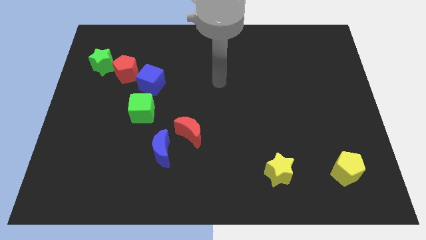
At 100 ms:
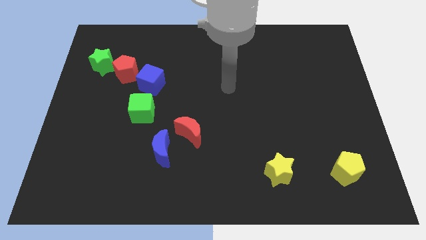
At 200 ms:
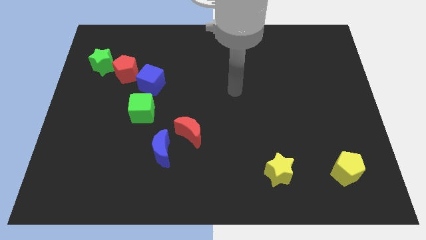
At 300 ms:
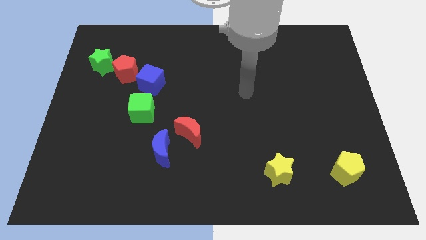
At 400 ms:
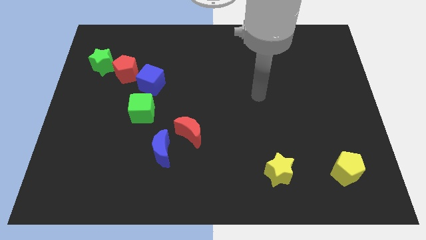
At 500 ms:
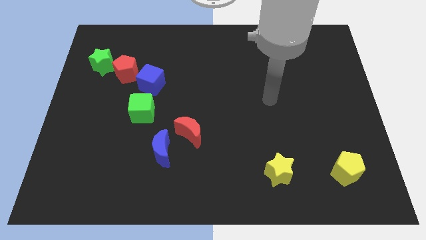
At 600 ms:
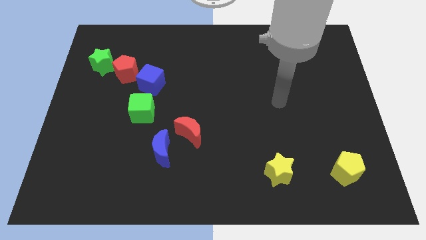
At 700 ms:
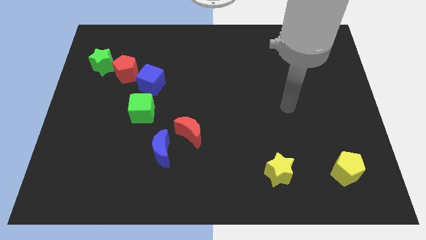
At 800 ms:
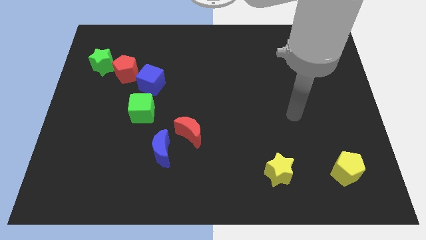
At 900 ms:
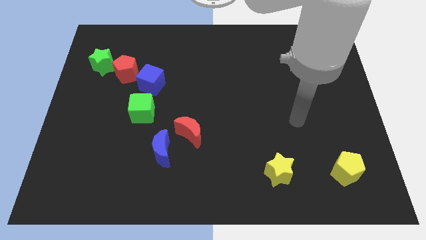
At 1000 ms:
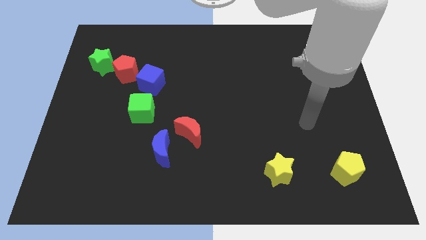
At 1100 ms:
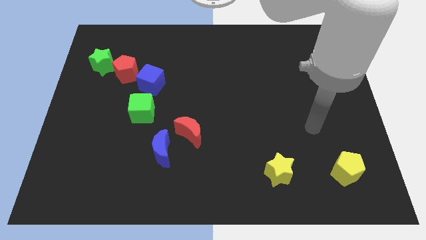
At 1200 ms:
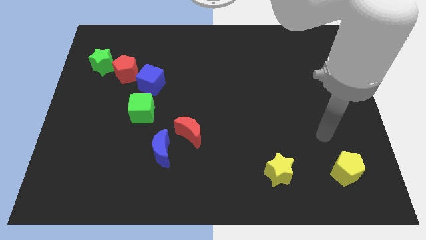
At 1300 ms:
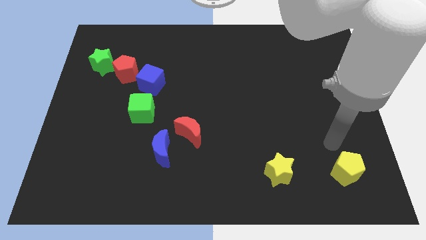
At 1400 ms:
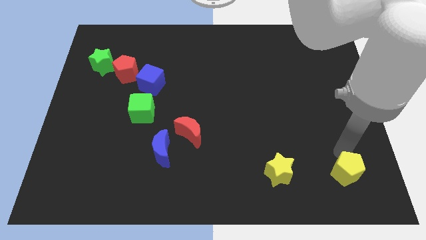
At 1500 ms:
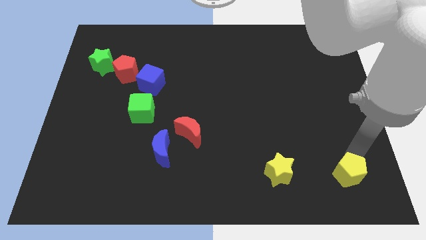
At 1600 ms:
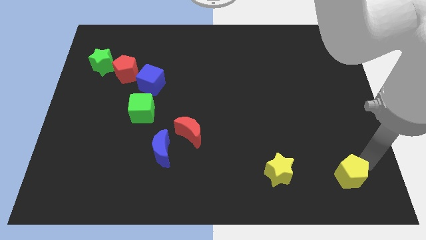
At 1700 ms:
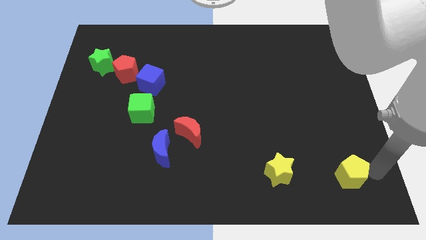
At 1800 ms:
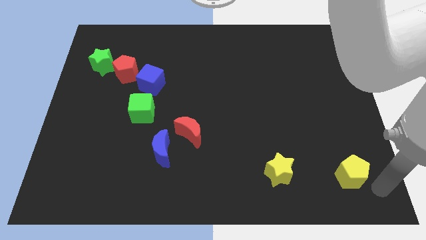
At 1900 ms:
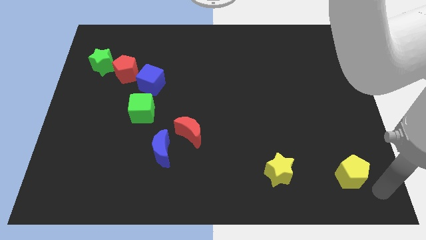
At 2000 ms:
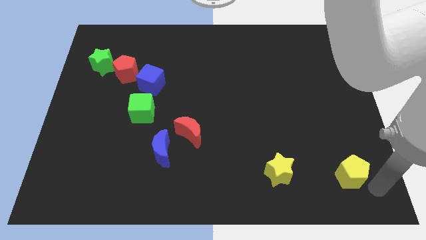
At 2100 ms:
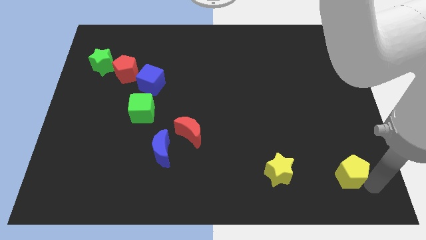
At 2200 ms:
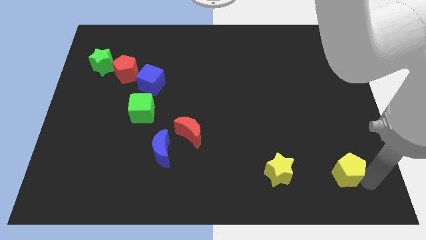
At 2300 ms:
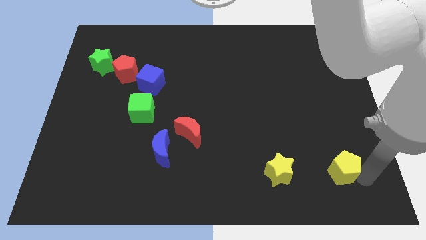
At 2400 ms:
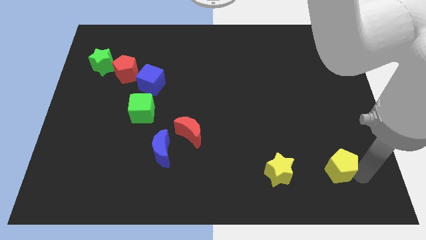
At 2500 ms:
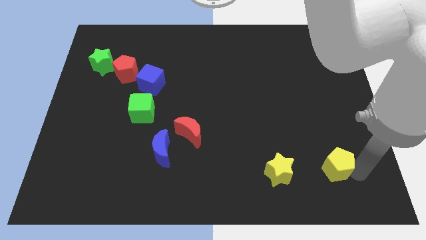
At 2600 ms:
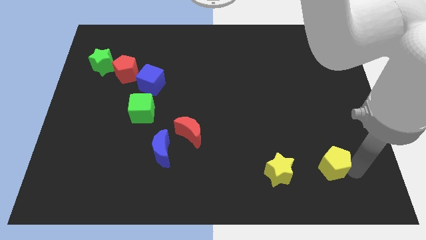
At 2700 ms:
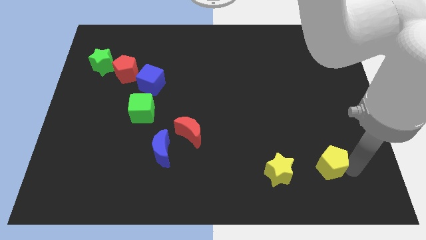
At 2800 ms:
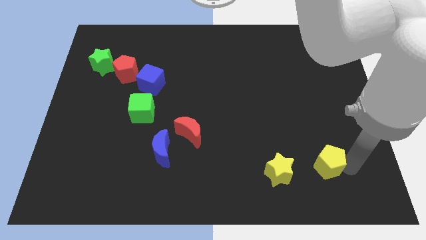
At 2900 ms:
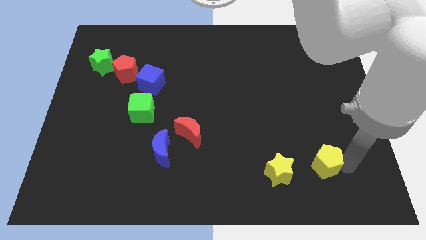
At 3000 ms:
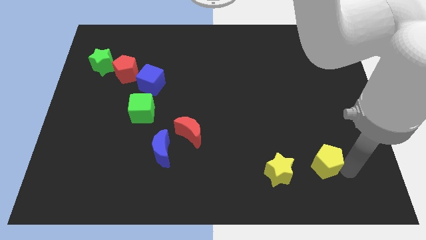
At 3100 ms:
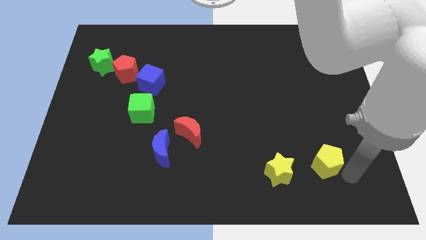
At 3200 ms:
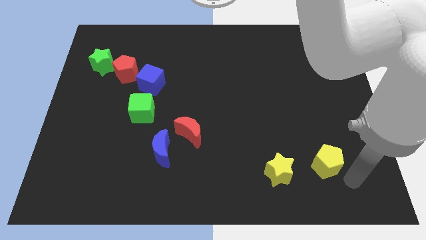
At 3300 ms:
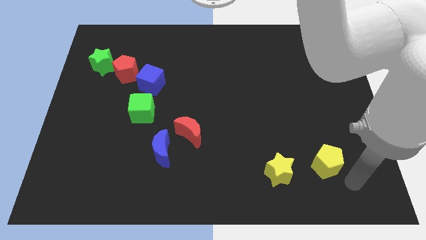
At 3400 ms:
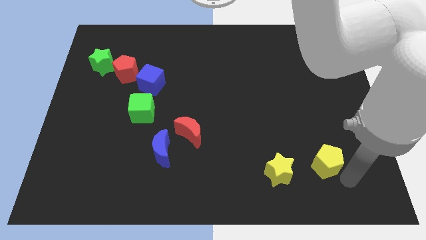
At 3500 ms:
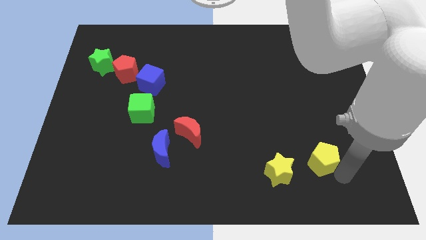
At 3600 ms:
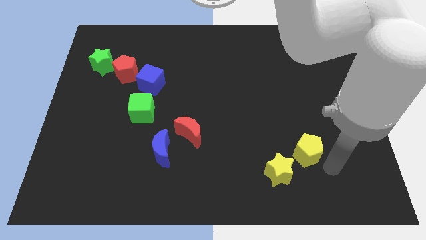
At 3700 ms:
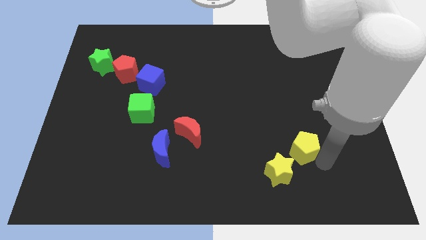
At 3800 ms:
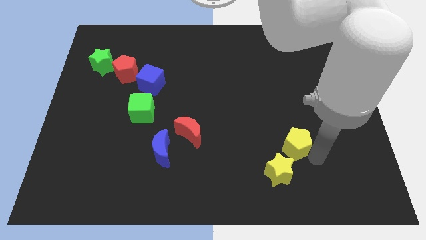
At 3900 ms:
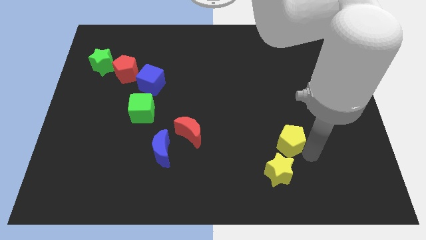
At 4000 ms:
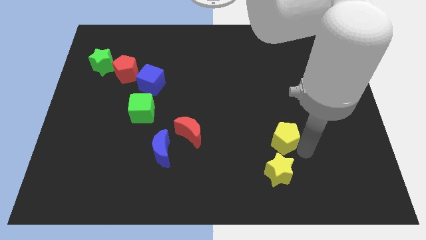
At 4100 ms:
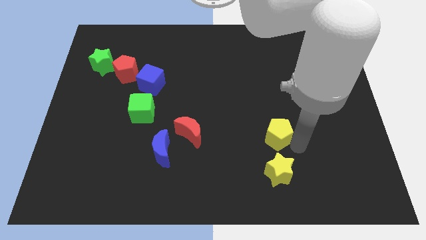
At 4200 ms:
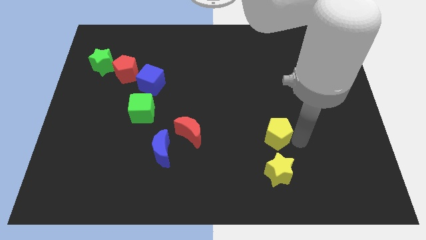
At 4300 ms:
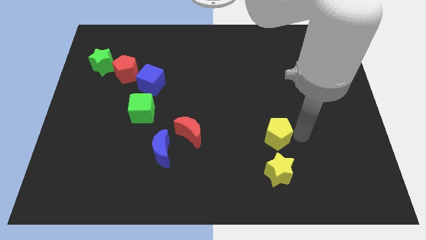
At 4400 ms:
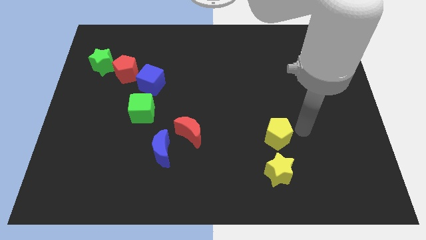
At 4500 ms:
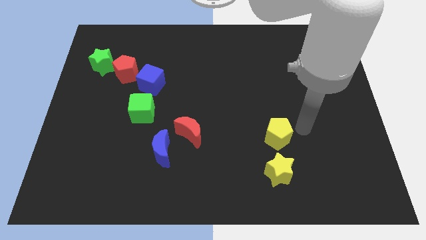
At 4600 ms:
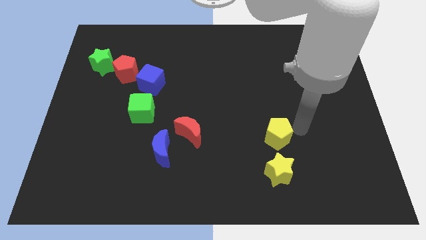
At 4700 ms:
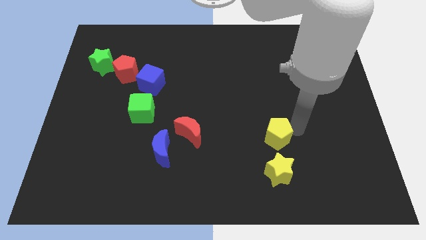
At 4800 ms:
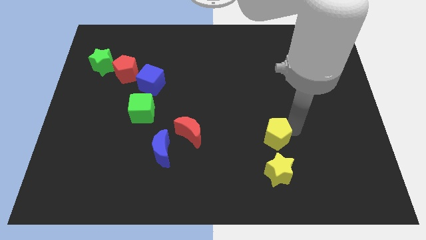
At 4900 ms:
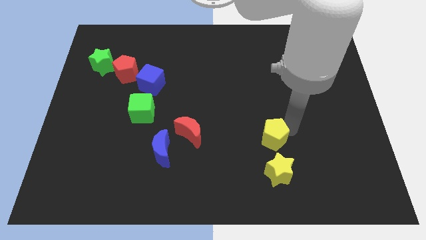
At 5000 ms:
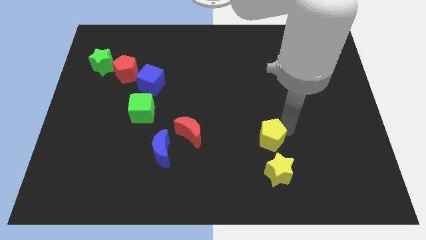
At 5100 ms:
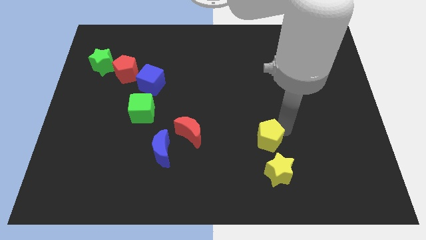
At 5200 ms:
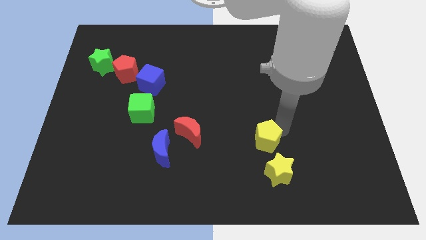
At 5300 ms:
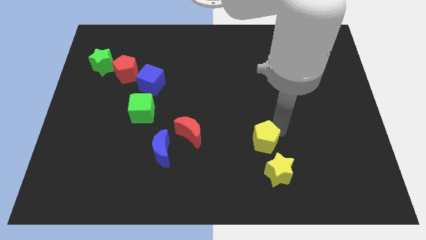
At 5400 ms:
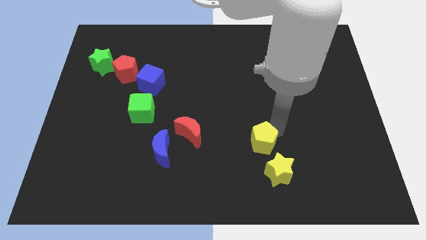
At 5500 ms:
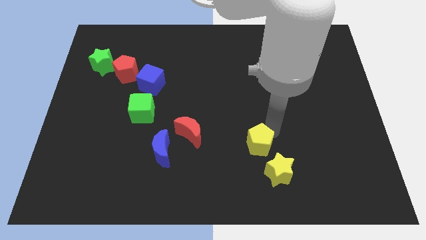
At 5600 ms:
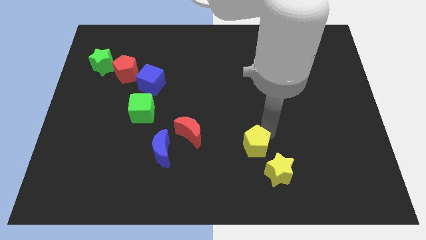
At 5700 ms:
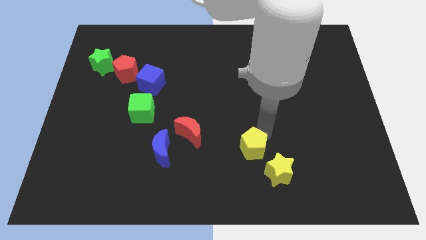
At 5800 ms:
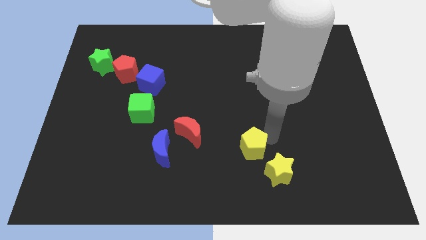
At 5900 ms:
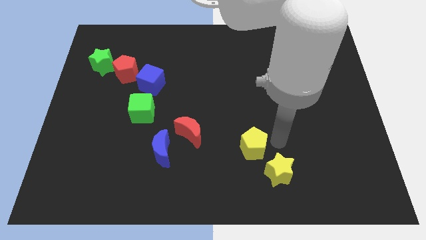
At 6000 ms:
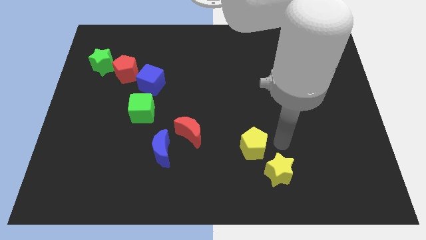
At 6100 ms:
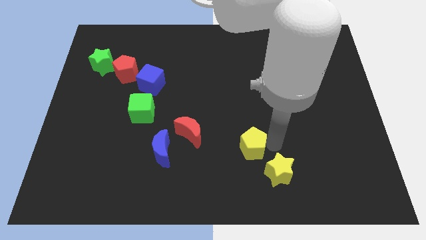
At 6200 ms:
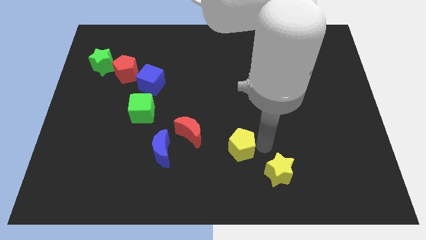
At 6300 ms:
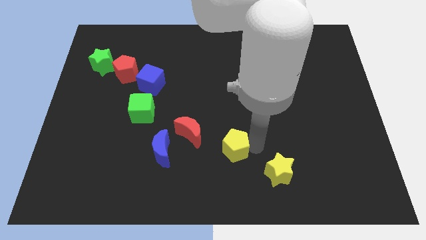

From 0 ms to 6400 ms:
push the yellow pentagon diagonally down and to the right of the red moon

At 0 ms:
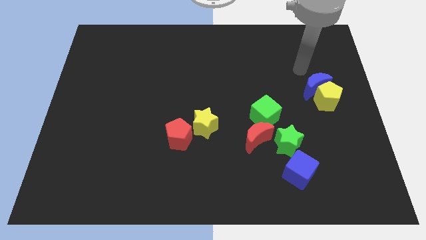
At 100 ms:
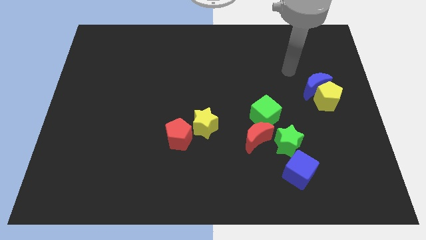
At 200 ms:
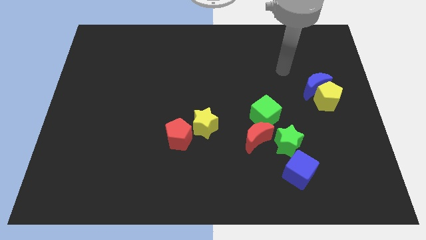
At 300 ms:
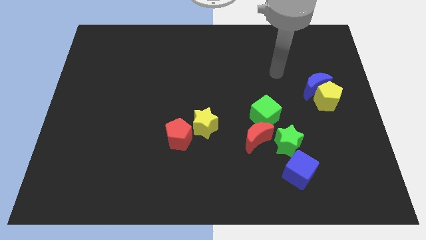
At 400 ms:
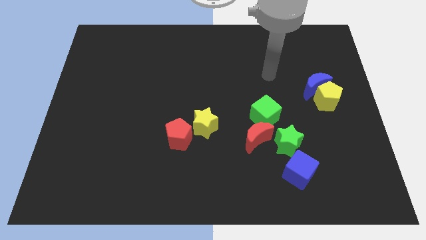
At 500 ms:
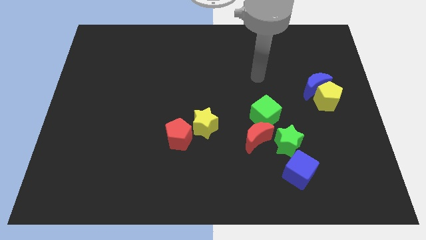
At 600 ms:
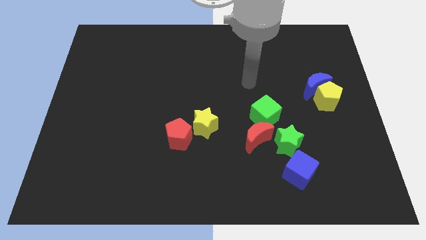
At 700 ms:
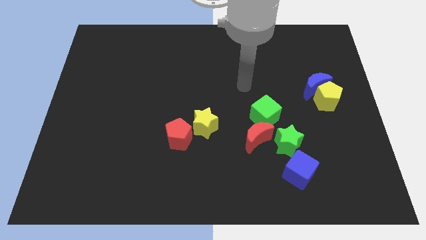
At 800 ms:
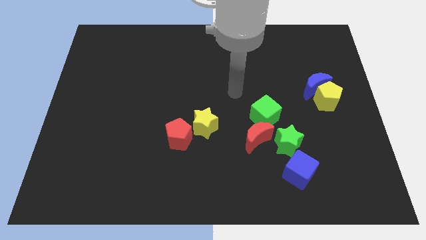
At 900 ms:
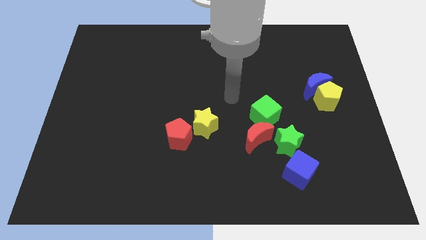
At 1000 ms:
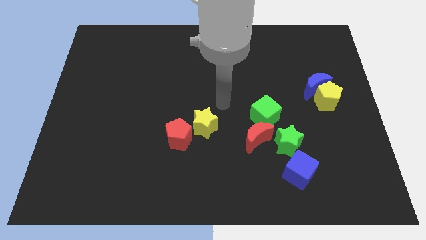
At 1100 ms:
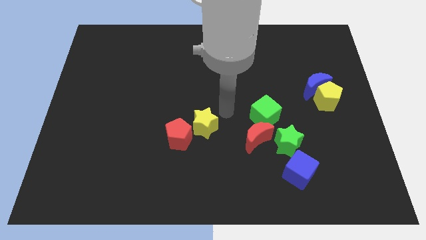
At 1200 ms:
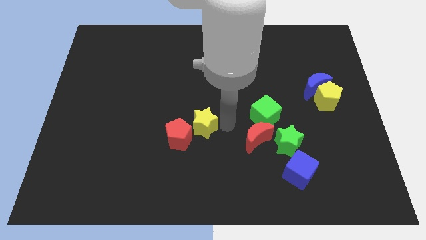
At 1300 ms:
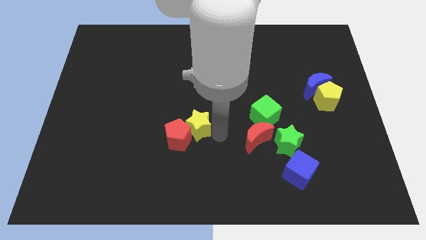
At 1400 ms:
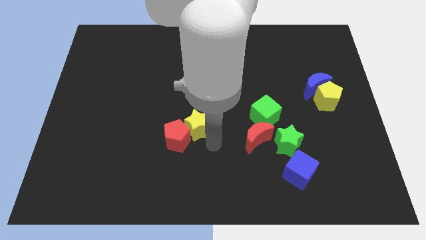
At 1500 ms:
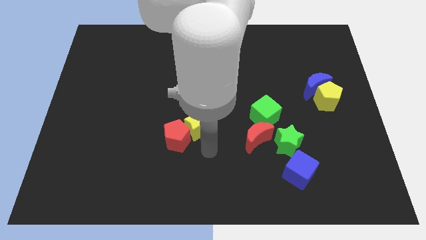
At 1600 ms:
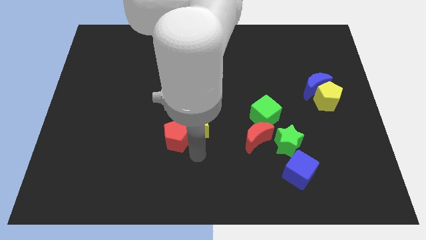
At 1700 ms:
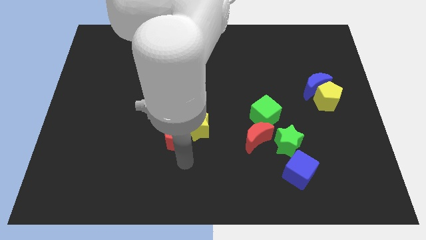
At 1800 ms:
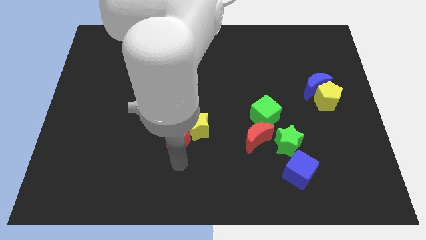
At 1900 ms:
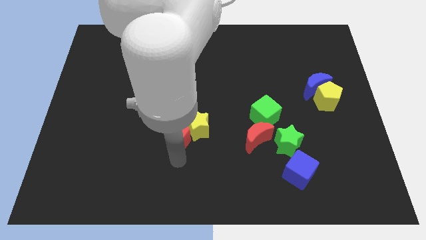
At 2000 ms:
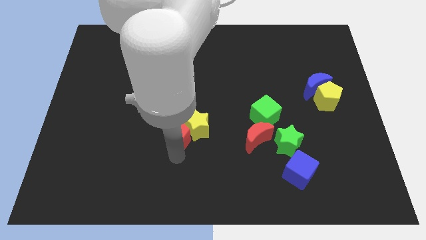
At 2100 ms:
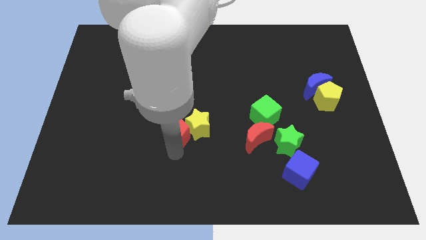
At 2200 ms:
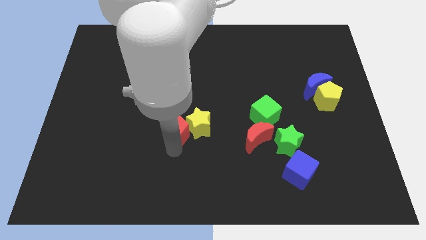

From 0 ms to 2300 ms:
move the red pentagon diagonally up and to the left of the yellow star
